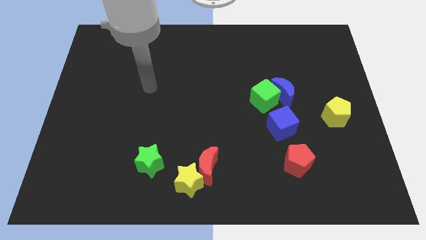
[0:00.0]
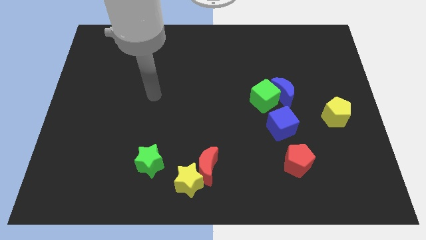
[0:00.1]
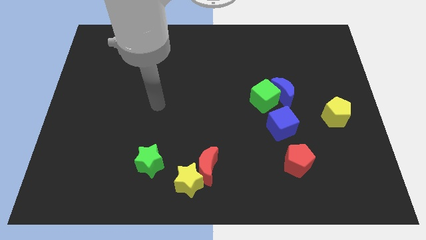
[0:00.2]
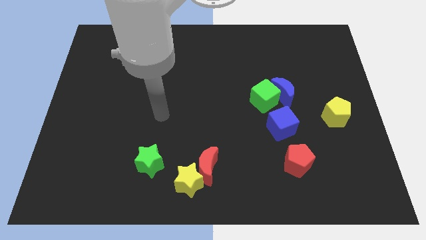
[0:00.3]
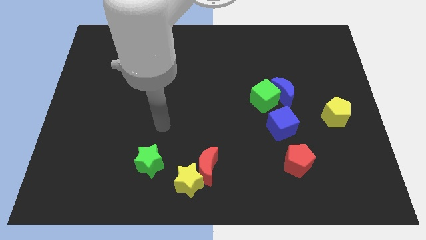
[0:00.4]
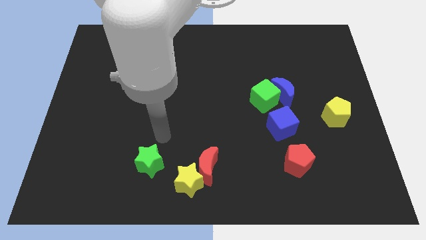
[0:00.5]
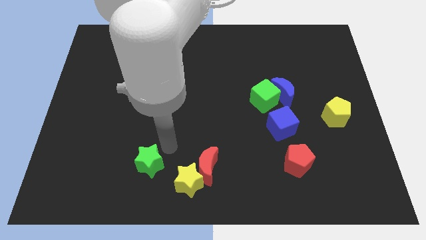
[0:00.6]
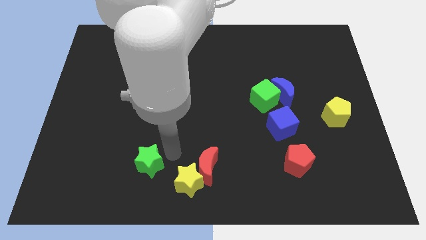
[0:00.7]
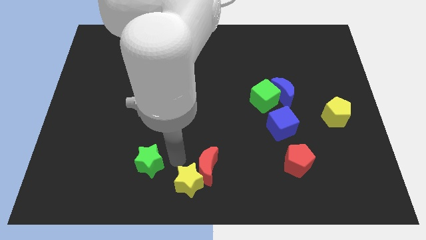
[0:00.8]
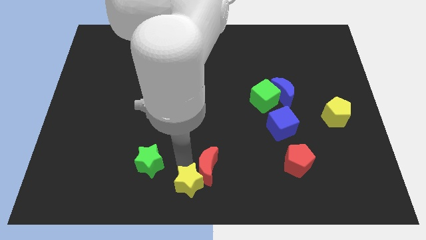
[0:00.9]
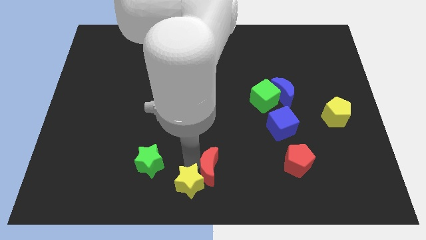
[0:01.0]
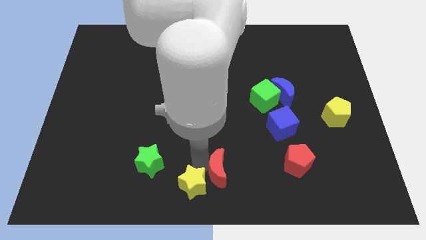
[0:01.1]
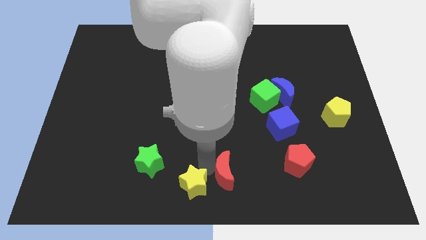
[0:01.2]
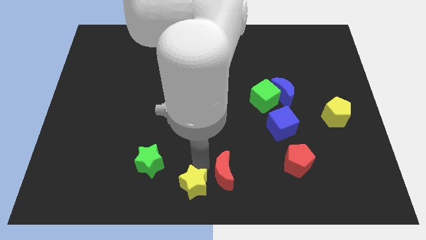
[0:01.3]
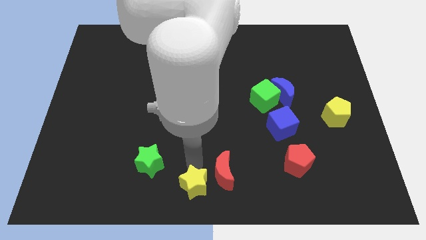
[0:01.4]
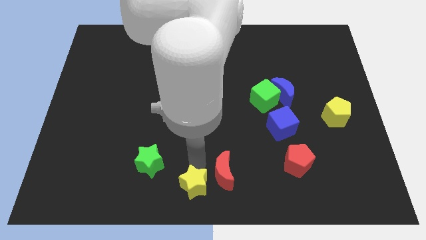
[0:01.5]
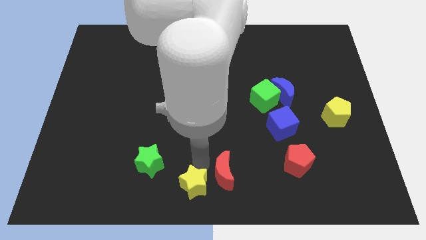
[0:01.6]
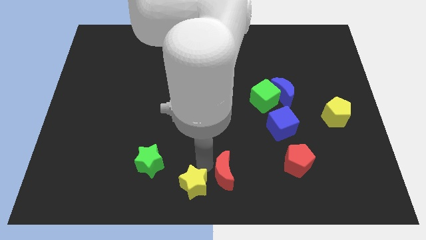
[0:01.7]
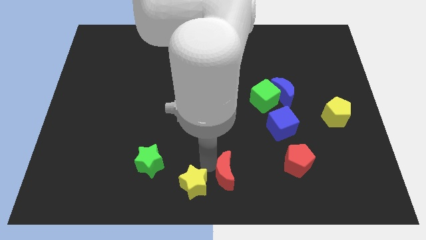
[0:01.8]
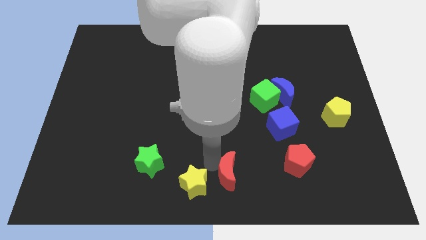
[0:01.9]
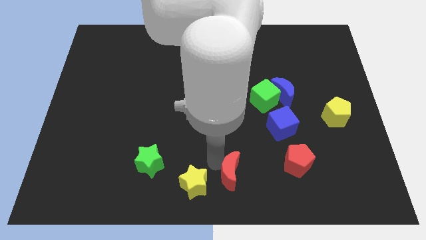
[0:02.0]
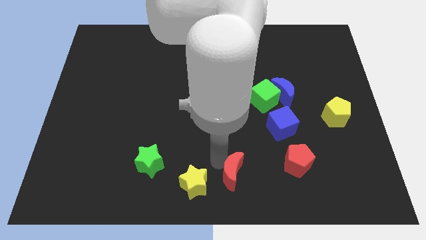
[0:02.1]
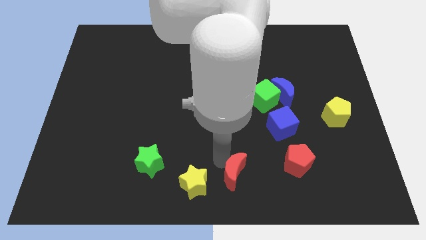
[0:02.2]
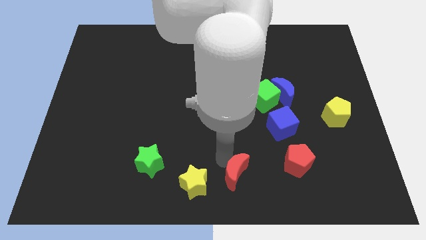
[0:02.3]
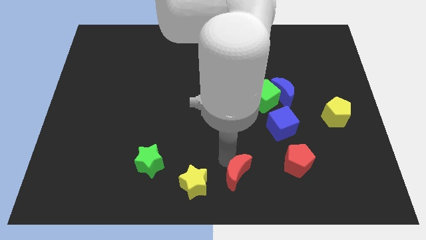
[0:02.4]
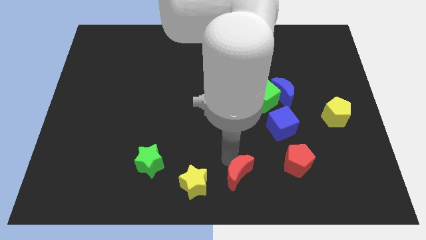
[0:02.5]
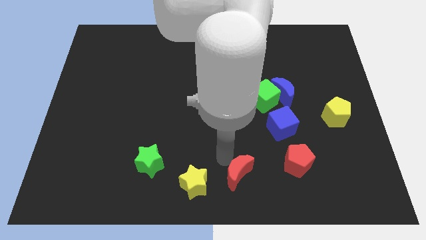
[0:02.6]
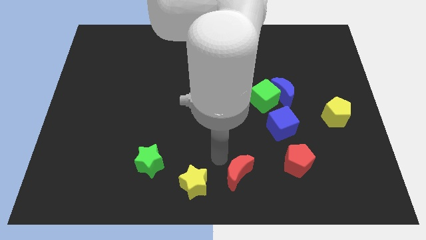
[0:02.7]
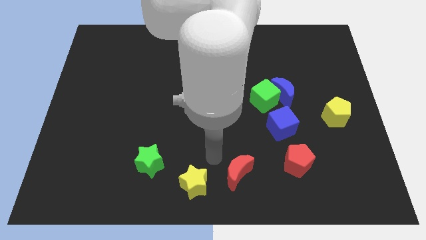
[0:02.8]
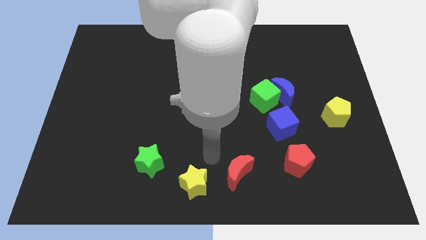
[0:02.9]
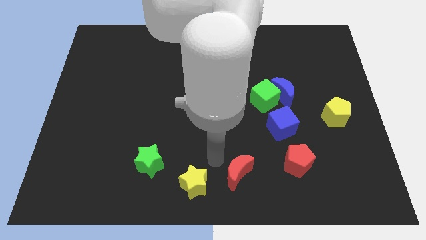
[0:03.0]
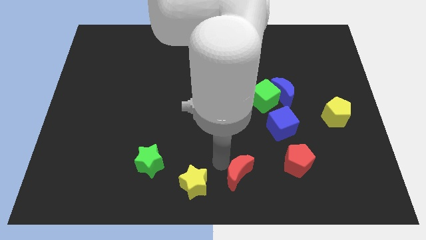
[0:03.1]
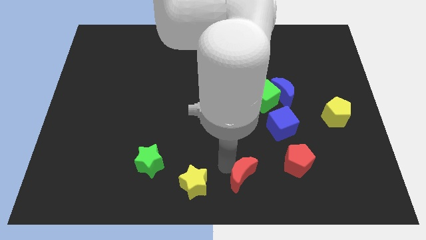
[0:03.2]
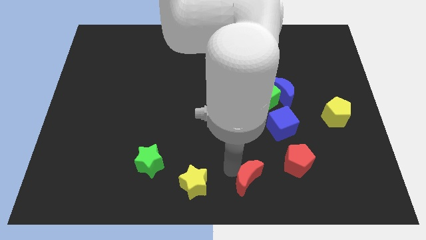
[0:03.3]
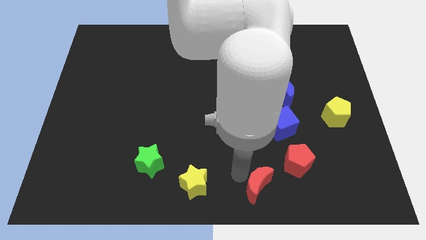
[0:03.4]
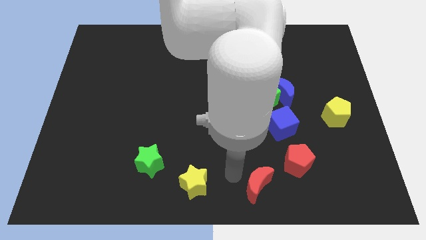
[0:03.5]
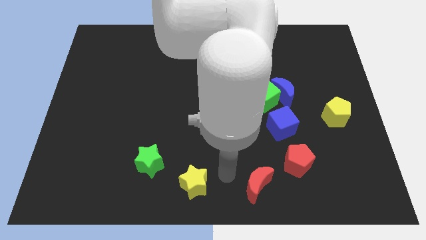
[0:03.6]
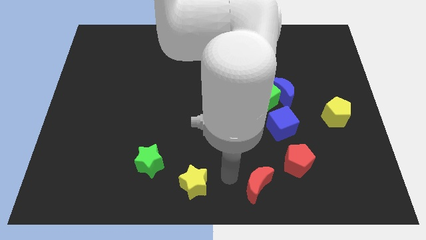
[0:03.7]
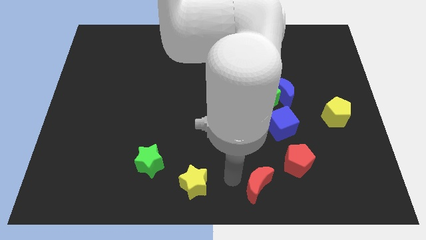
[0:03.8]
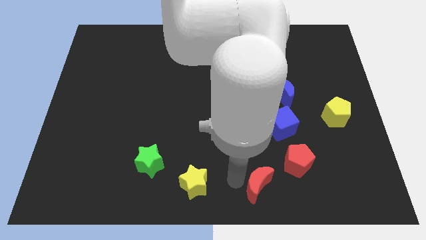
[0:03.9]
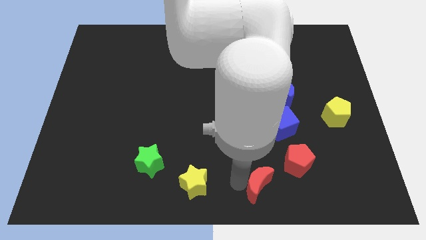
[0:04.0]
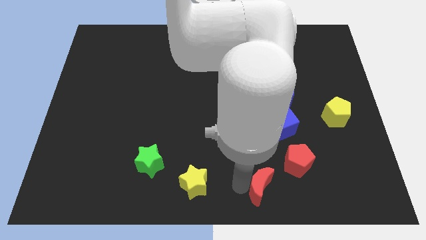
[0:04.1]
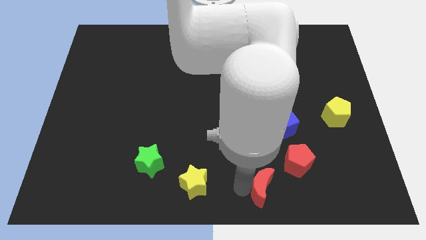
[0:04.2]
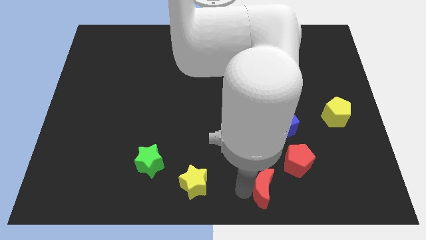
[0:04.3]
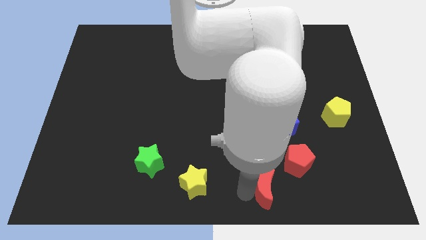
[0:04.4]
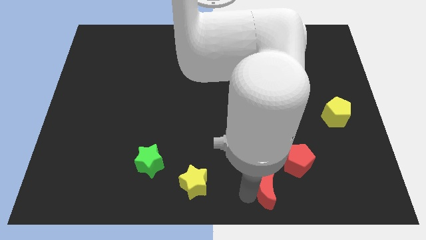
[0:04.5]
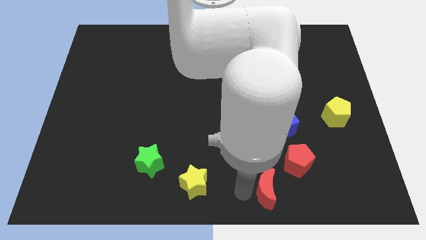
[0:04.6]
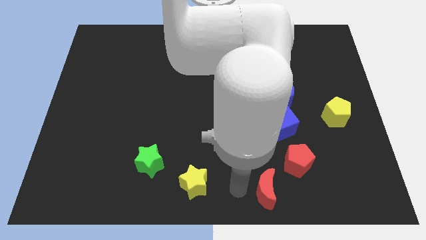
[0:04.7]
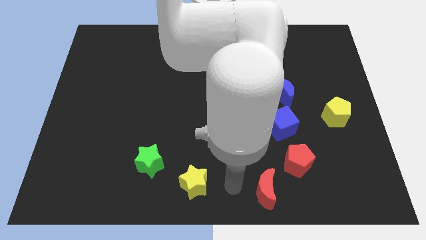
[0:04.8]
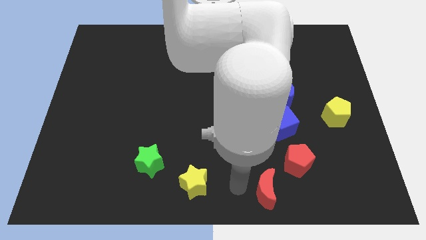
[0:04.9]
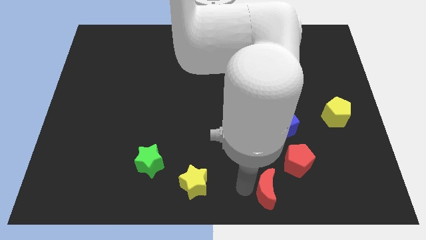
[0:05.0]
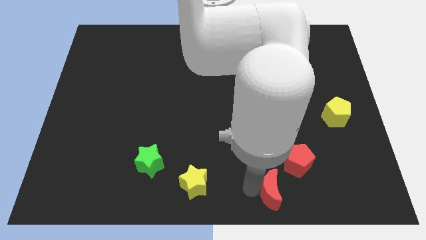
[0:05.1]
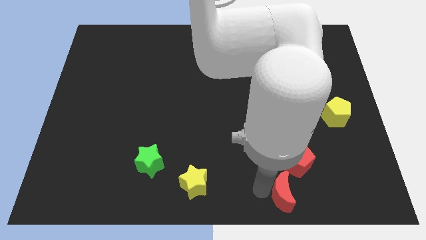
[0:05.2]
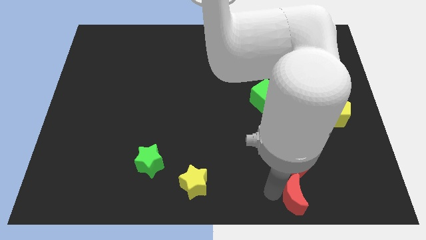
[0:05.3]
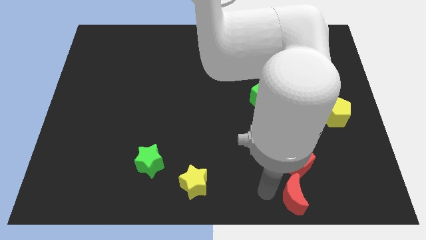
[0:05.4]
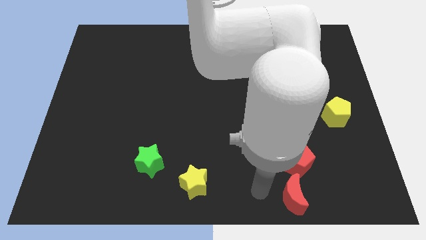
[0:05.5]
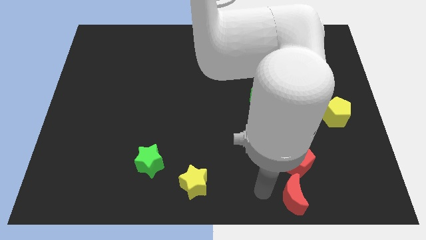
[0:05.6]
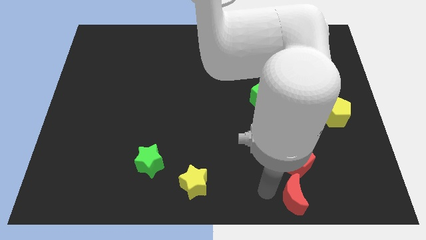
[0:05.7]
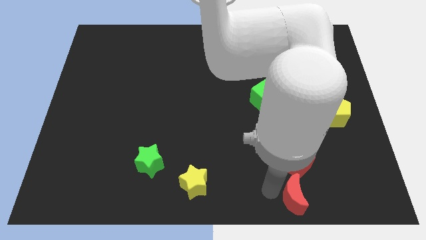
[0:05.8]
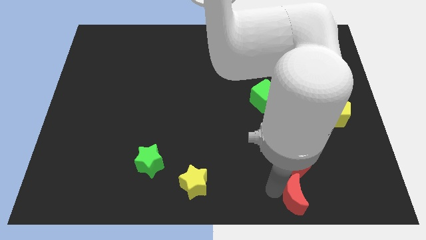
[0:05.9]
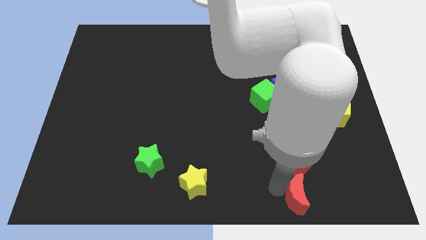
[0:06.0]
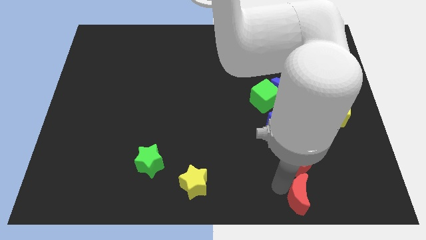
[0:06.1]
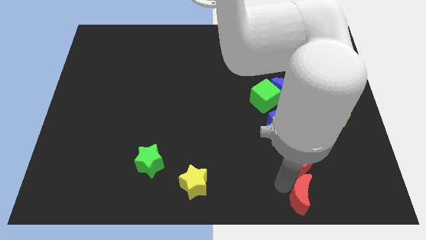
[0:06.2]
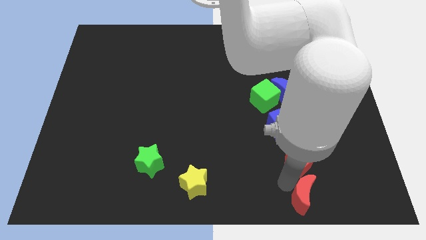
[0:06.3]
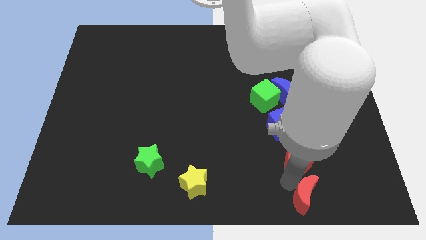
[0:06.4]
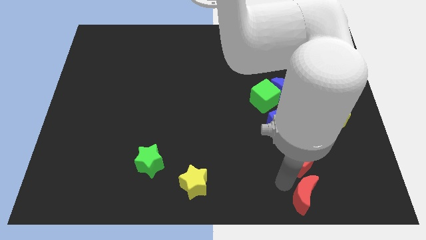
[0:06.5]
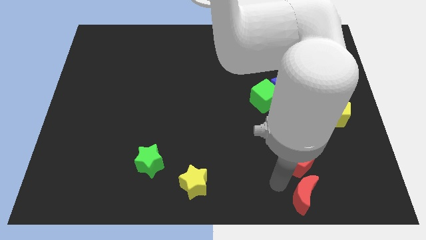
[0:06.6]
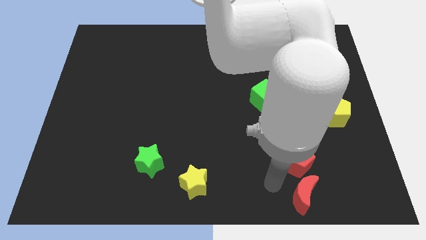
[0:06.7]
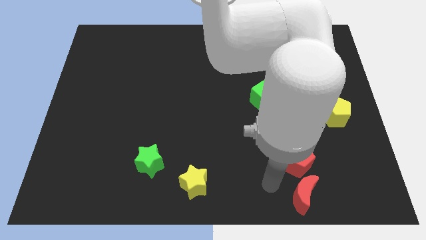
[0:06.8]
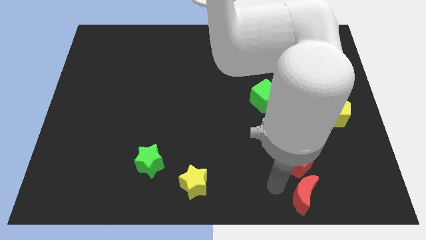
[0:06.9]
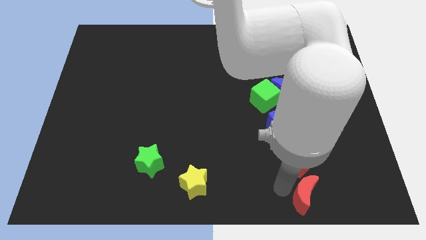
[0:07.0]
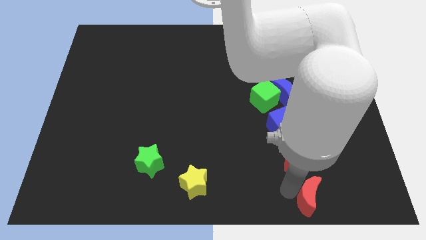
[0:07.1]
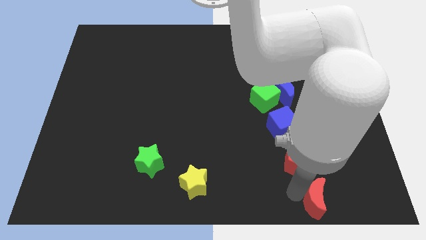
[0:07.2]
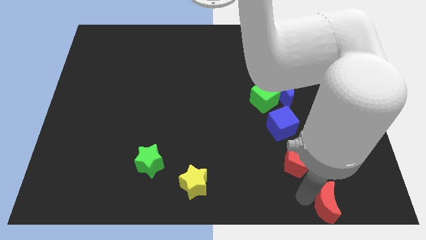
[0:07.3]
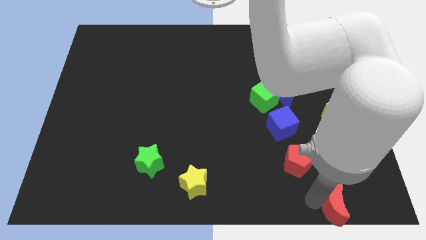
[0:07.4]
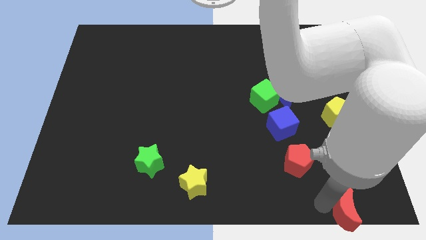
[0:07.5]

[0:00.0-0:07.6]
push the red moon to the lower right corner
